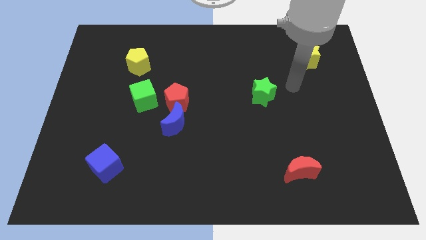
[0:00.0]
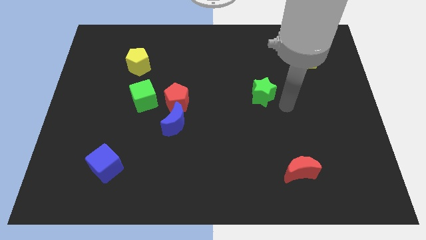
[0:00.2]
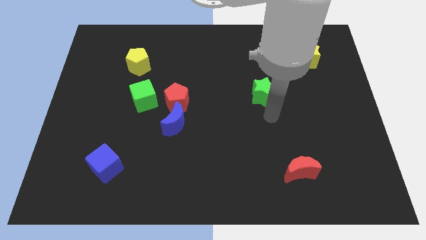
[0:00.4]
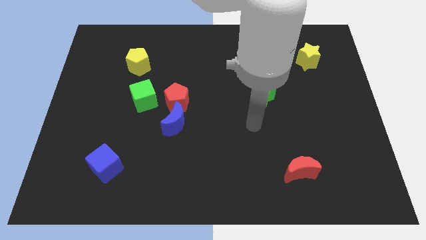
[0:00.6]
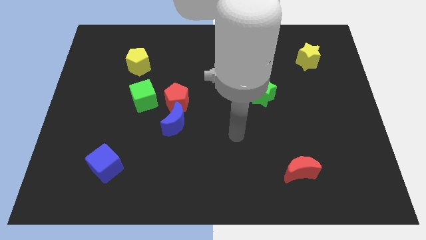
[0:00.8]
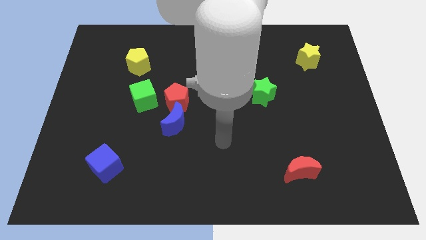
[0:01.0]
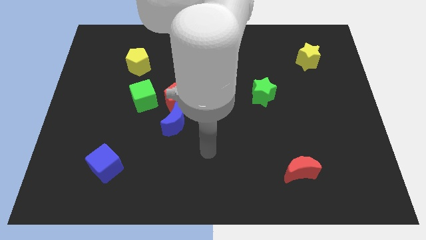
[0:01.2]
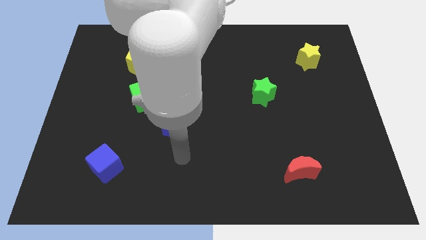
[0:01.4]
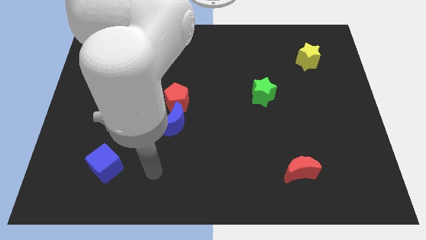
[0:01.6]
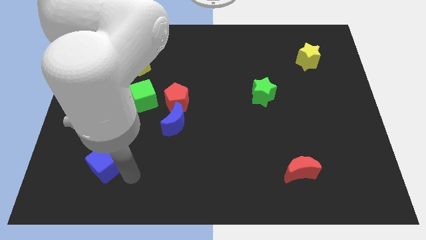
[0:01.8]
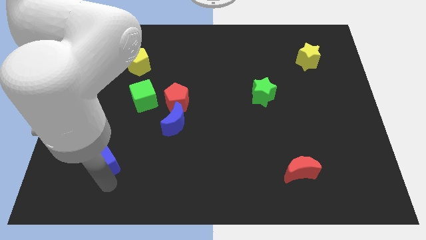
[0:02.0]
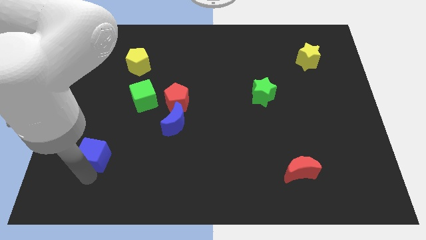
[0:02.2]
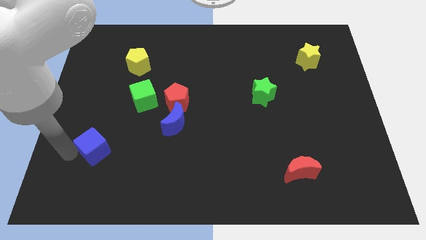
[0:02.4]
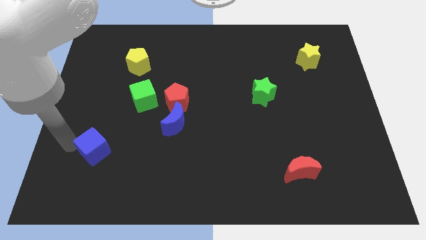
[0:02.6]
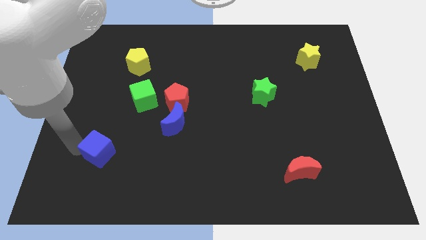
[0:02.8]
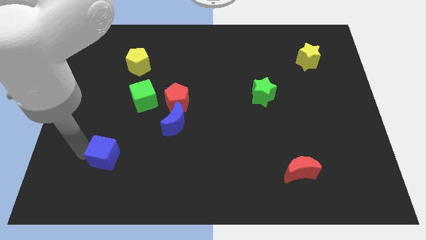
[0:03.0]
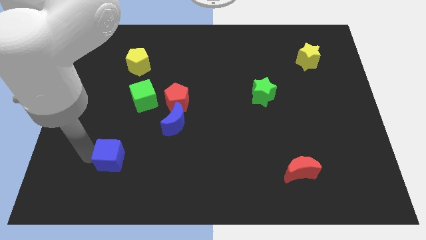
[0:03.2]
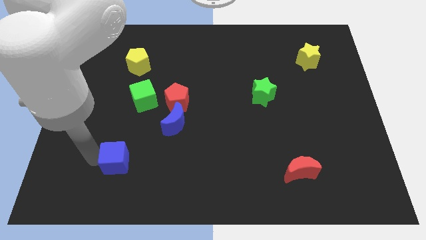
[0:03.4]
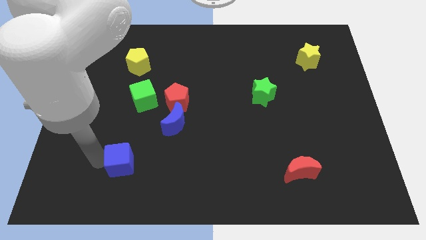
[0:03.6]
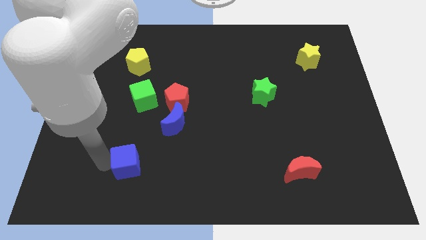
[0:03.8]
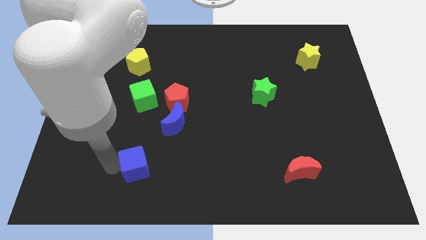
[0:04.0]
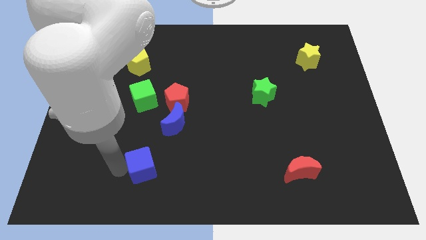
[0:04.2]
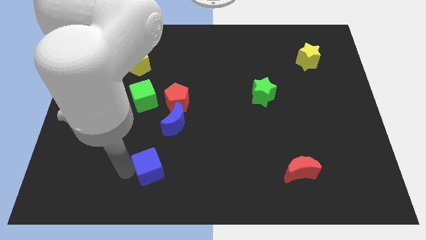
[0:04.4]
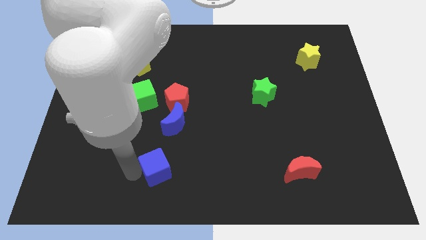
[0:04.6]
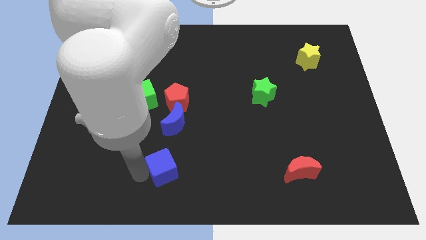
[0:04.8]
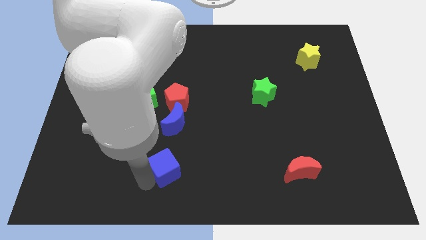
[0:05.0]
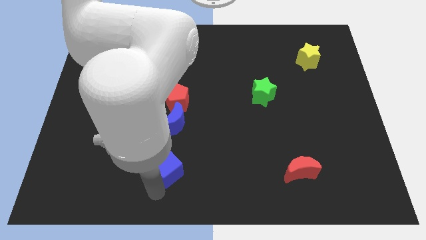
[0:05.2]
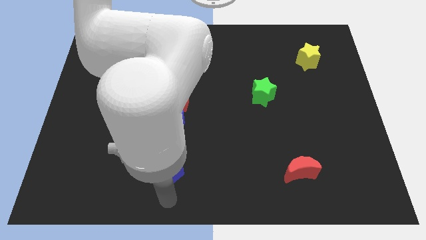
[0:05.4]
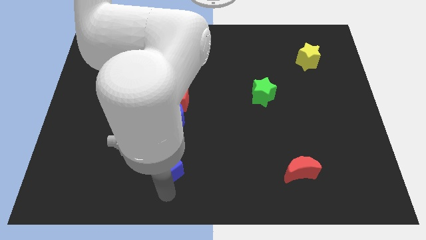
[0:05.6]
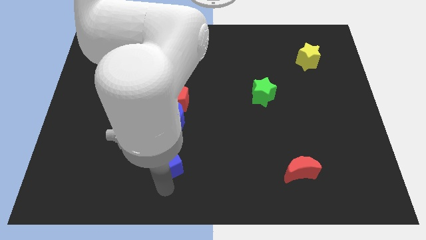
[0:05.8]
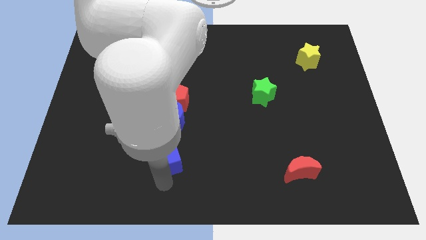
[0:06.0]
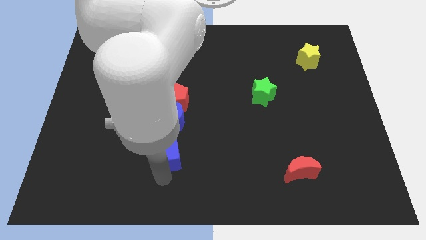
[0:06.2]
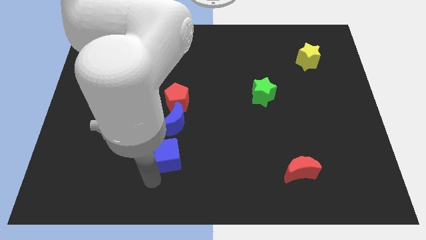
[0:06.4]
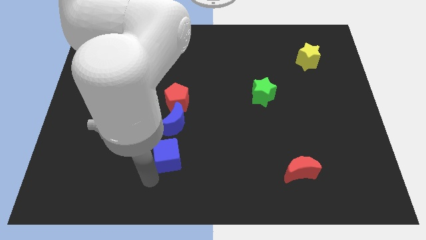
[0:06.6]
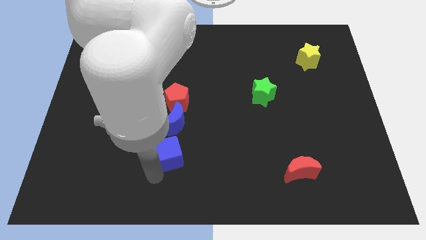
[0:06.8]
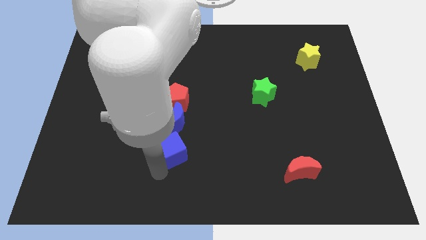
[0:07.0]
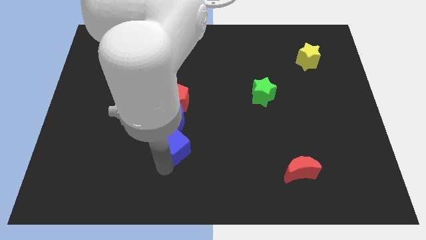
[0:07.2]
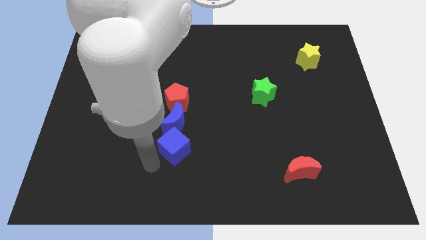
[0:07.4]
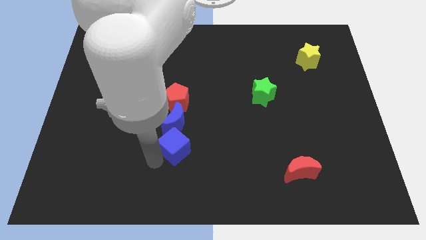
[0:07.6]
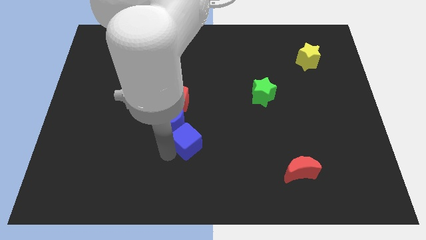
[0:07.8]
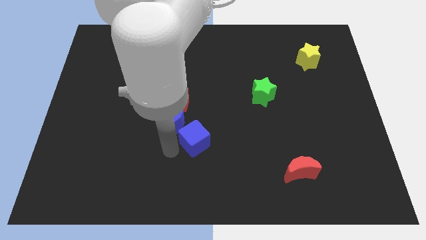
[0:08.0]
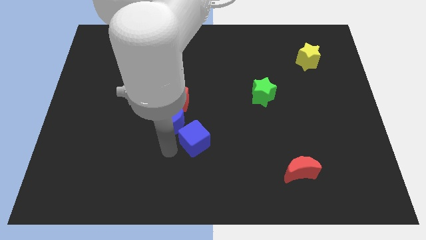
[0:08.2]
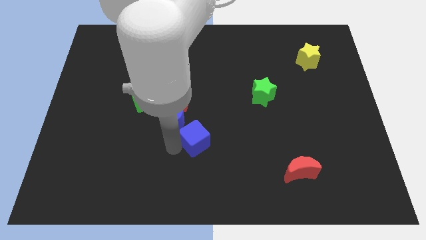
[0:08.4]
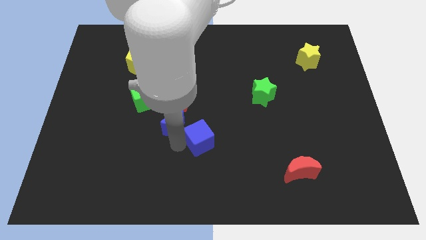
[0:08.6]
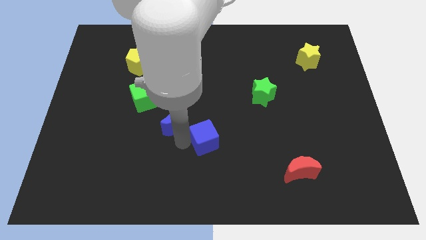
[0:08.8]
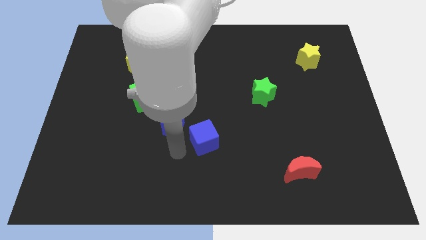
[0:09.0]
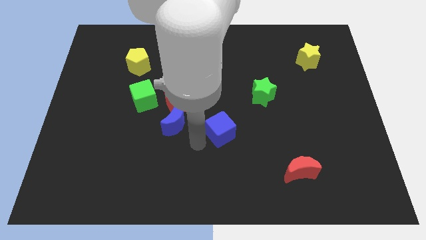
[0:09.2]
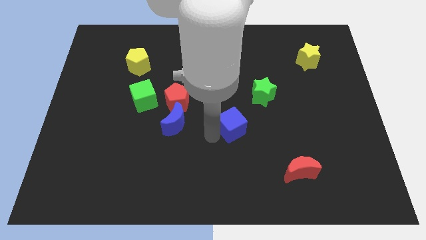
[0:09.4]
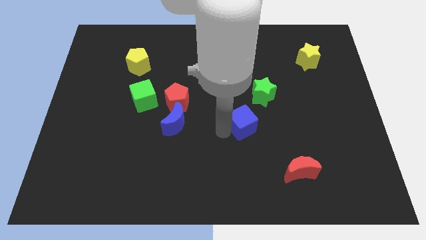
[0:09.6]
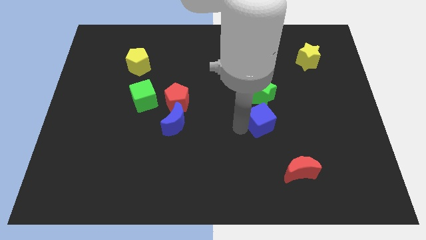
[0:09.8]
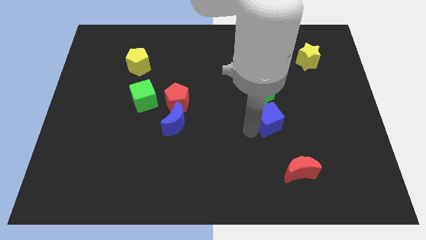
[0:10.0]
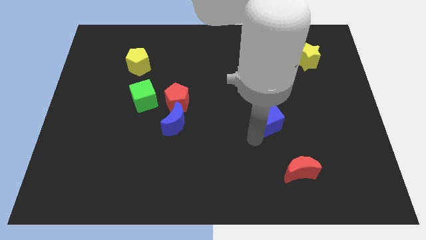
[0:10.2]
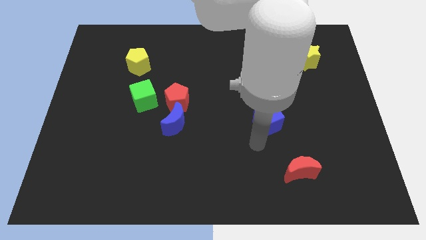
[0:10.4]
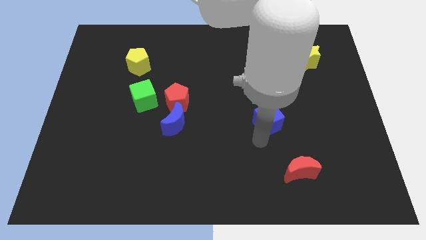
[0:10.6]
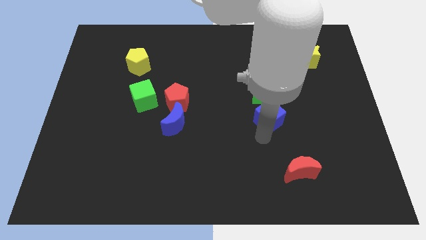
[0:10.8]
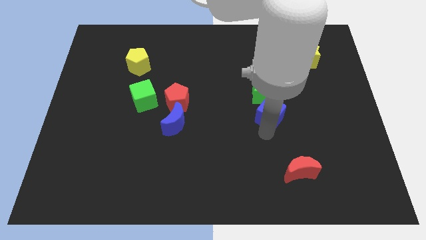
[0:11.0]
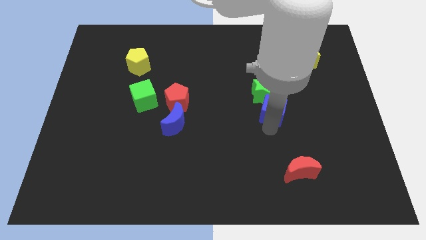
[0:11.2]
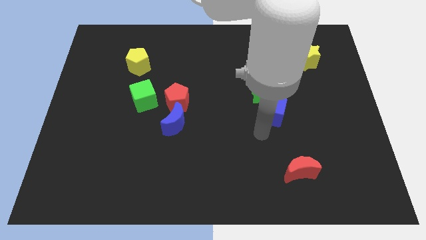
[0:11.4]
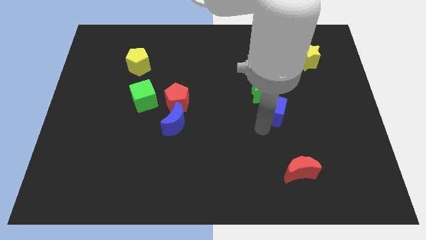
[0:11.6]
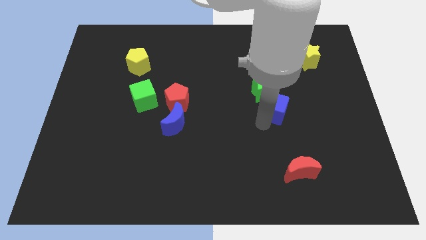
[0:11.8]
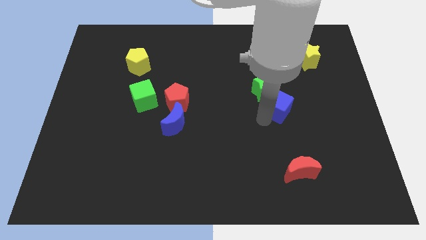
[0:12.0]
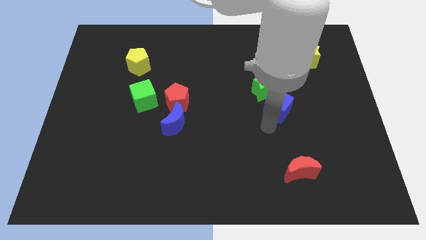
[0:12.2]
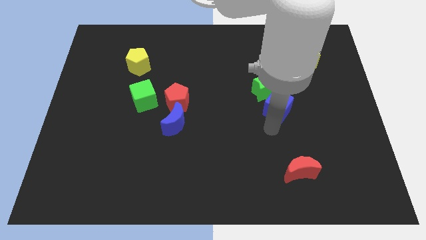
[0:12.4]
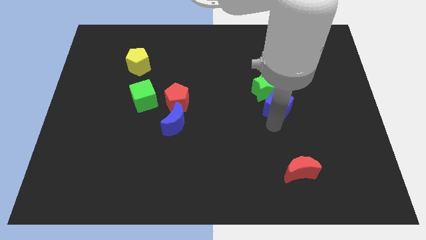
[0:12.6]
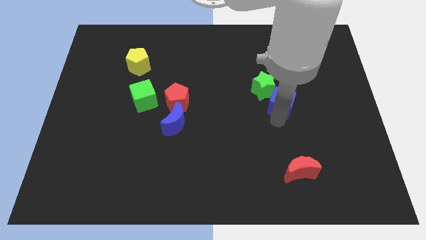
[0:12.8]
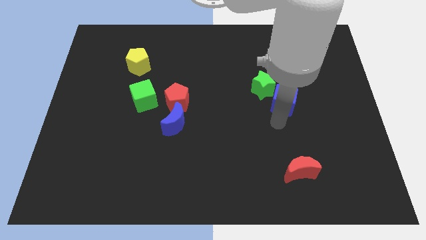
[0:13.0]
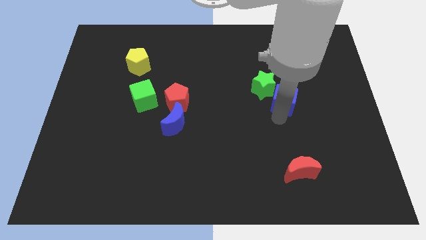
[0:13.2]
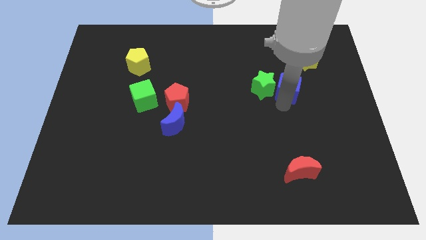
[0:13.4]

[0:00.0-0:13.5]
move the blue cube diagonally down and to the left of the yellow star
